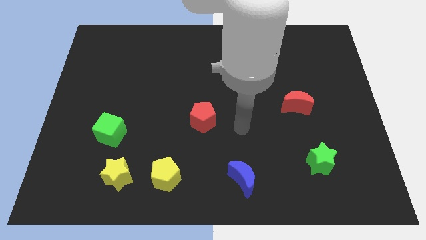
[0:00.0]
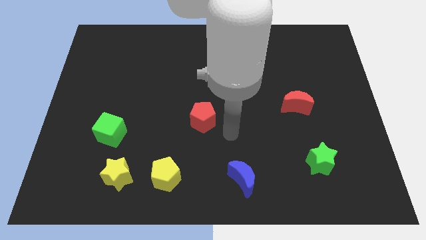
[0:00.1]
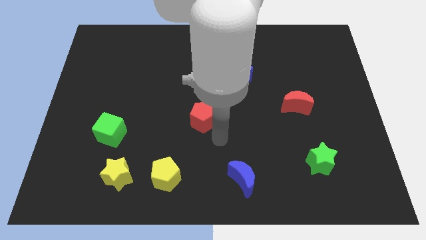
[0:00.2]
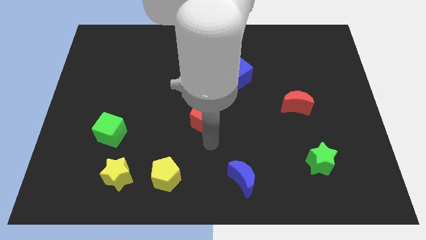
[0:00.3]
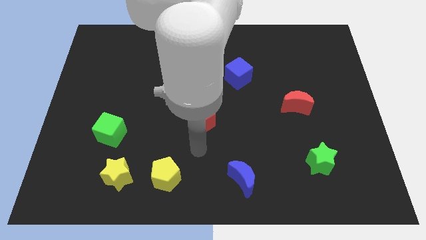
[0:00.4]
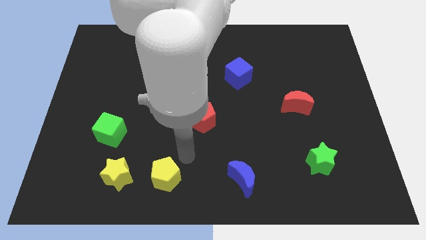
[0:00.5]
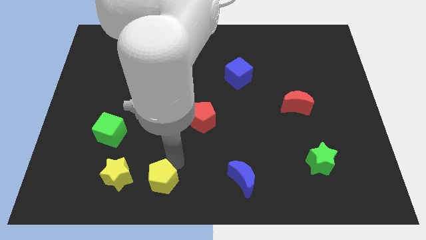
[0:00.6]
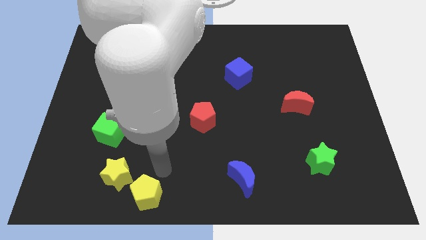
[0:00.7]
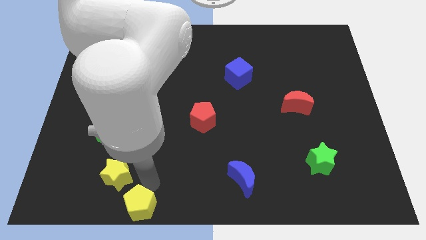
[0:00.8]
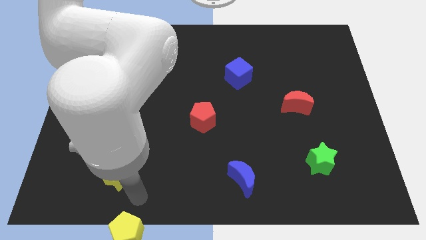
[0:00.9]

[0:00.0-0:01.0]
pull the yellow star apart from the yellow pentagon

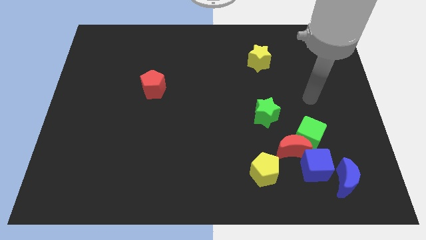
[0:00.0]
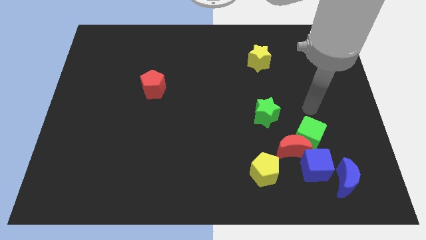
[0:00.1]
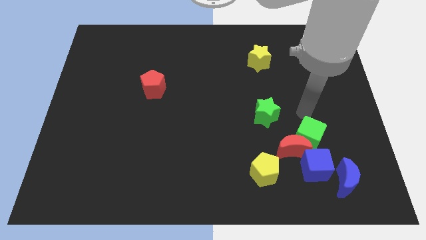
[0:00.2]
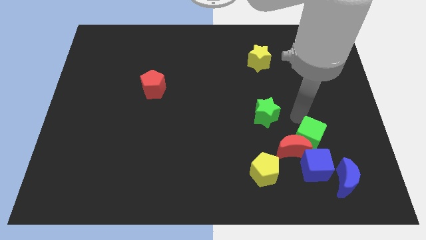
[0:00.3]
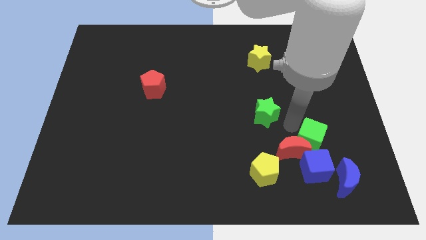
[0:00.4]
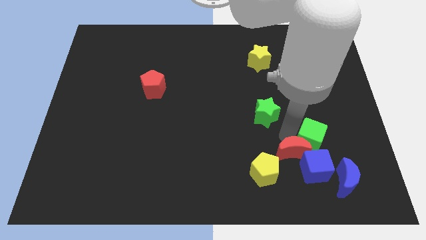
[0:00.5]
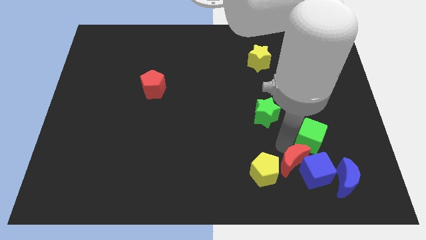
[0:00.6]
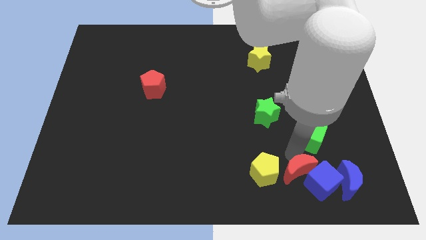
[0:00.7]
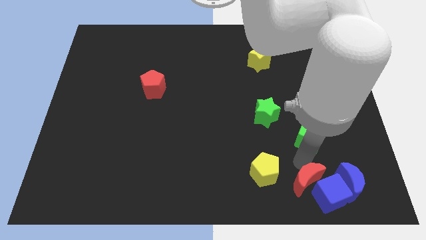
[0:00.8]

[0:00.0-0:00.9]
pull the green cube apart from the red moon and blue cube

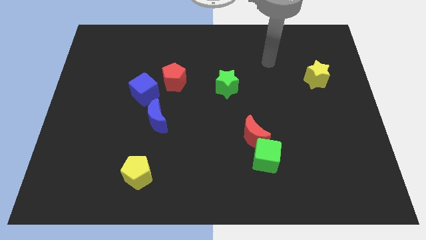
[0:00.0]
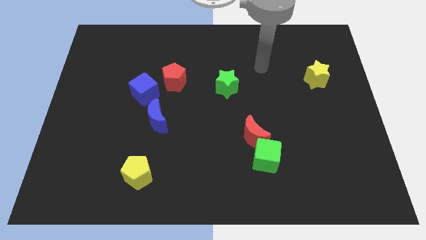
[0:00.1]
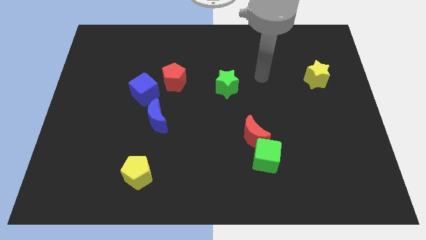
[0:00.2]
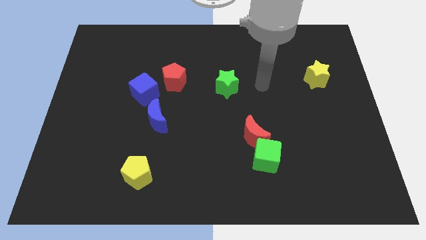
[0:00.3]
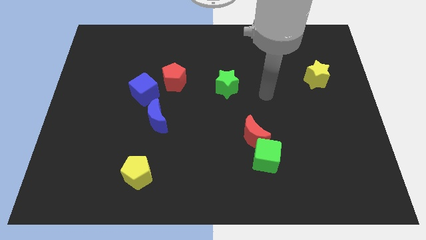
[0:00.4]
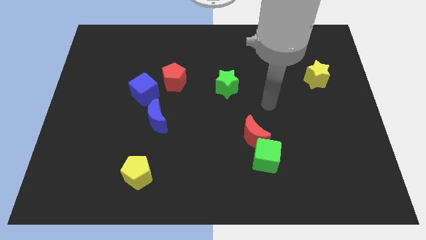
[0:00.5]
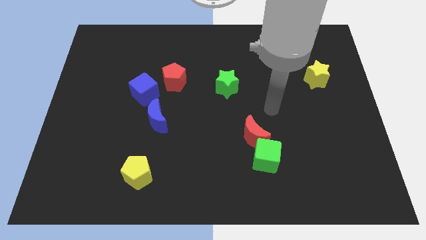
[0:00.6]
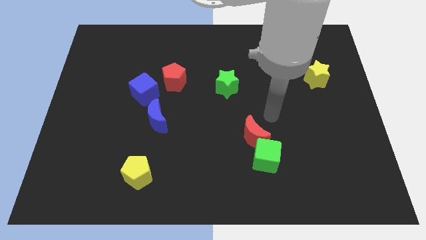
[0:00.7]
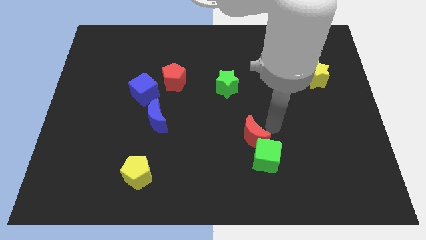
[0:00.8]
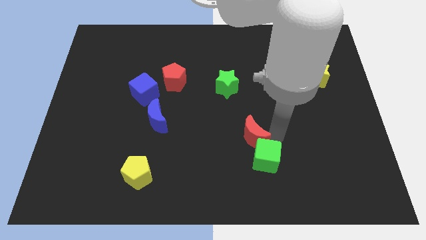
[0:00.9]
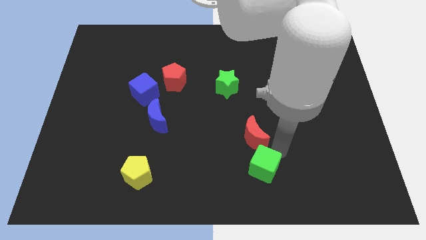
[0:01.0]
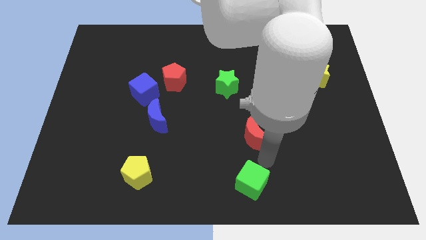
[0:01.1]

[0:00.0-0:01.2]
move the red moon away from the green cube

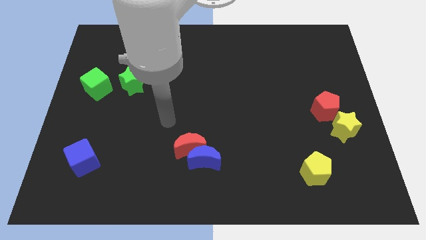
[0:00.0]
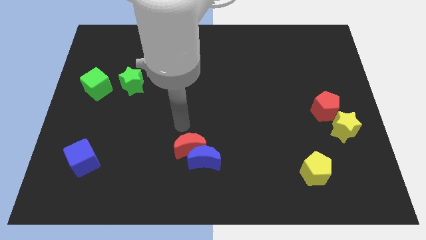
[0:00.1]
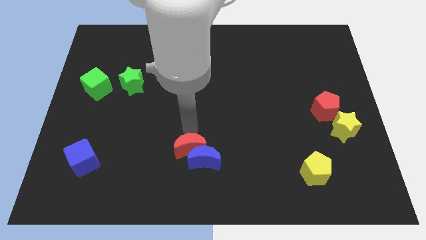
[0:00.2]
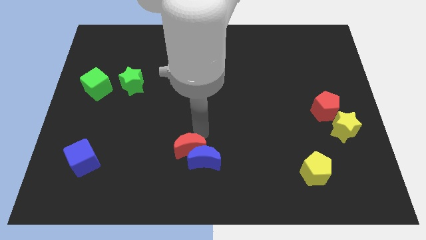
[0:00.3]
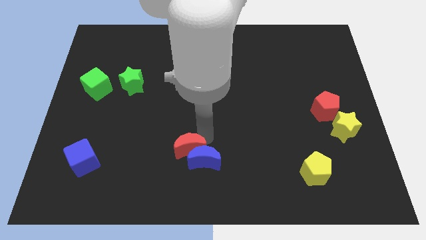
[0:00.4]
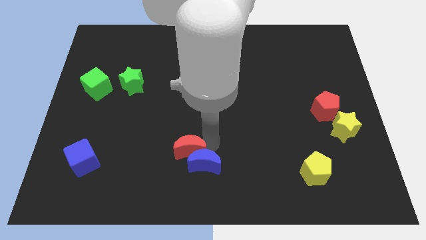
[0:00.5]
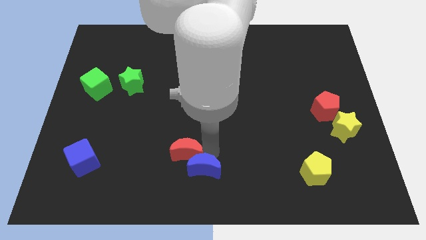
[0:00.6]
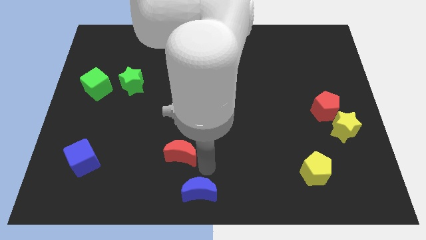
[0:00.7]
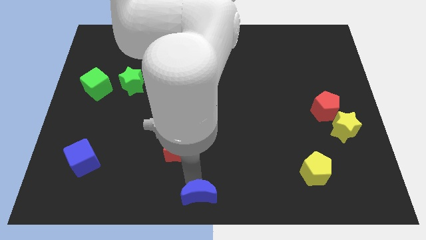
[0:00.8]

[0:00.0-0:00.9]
move the red moon away from the blue moon

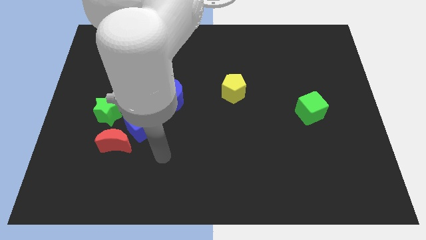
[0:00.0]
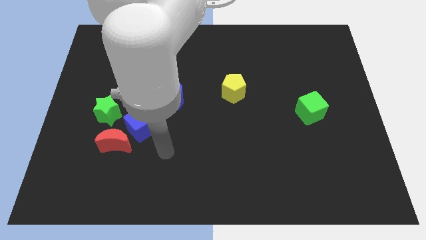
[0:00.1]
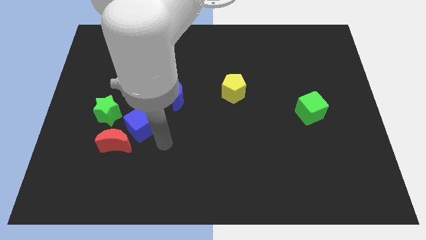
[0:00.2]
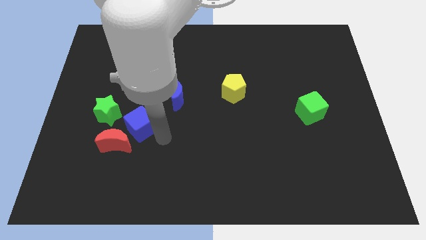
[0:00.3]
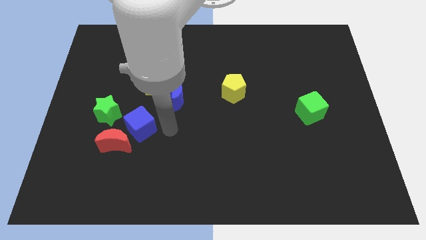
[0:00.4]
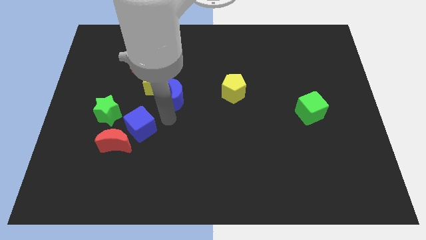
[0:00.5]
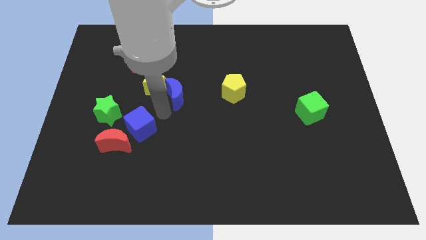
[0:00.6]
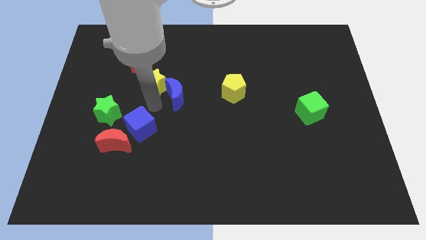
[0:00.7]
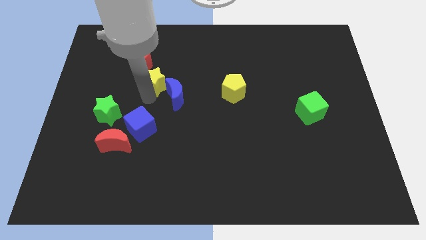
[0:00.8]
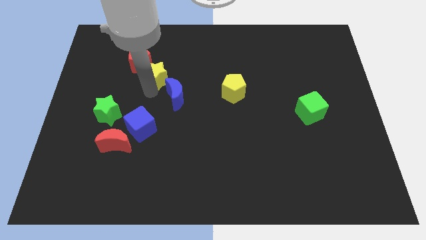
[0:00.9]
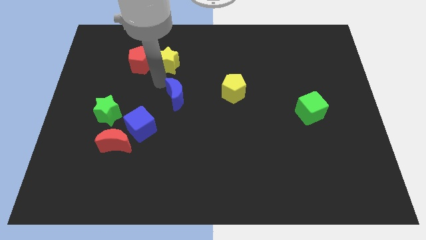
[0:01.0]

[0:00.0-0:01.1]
pull the blue moon apart from the yellow star

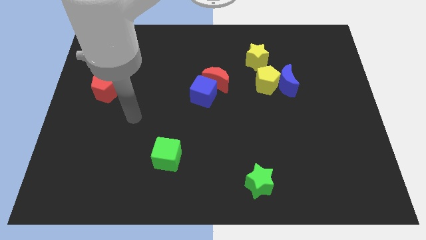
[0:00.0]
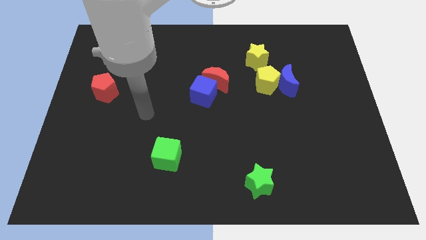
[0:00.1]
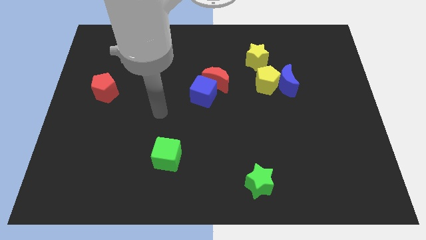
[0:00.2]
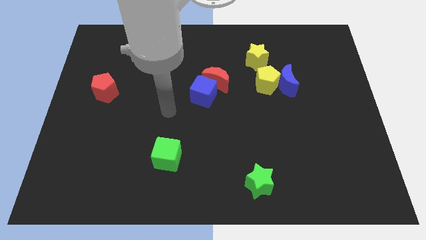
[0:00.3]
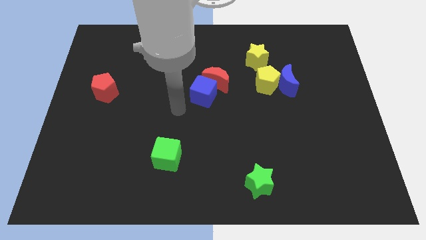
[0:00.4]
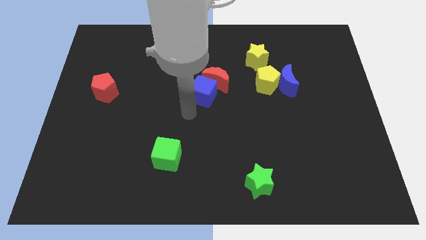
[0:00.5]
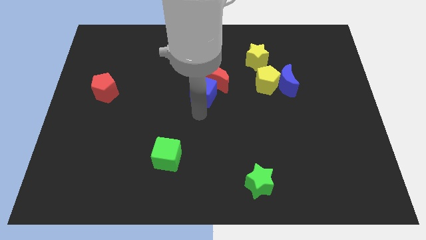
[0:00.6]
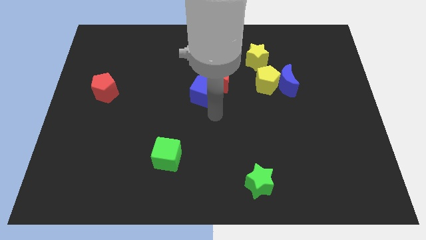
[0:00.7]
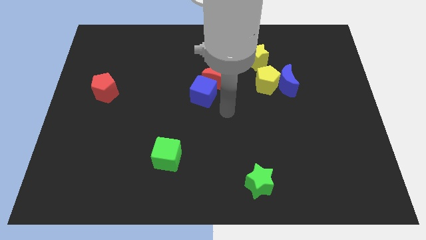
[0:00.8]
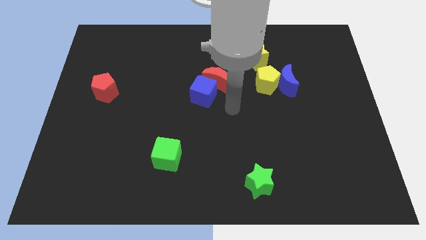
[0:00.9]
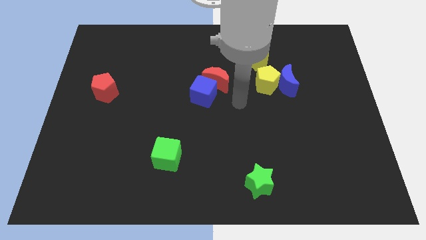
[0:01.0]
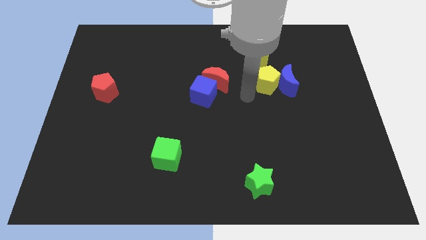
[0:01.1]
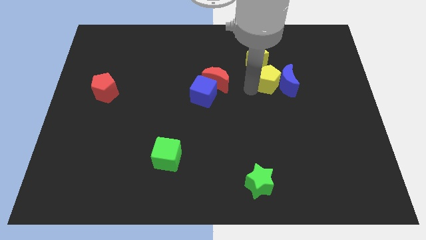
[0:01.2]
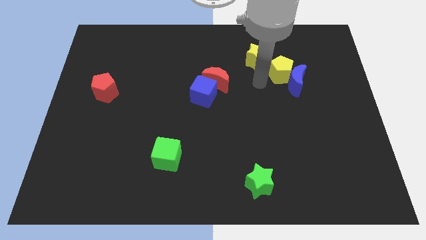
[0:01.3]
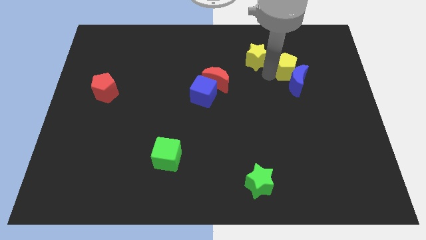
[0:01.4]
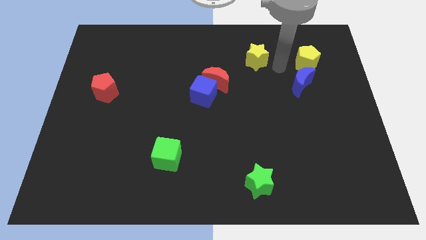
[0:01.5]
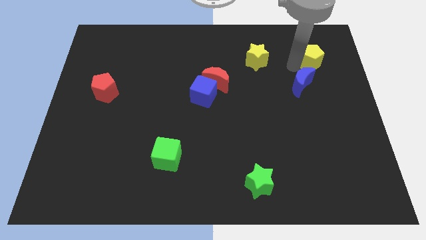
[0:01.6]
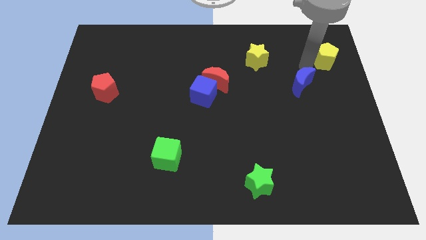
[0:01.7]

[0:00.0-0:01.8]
pull the blue moon apart from the yellow pentagon

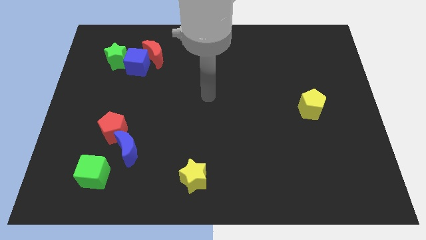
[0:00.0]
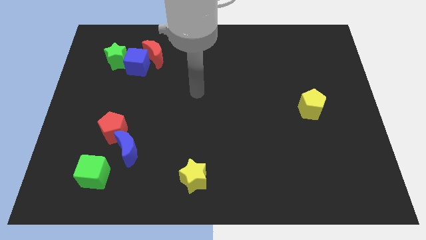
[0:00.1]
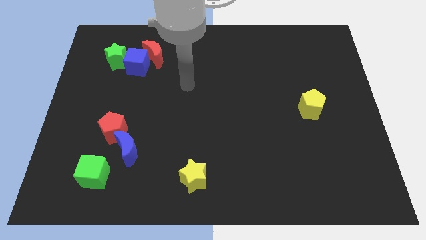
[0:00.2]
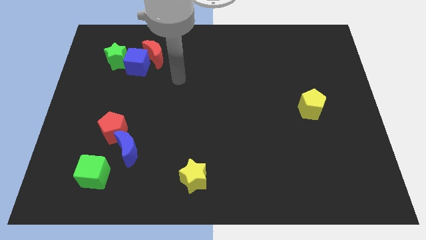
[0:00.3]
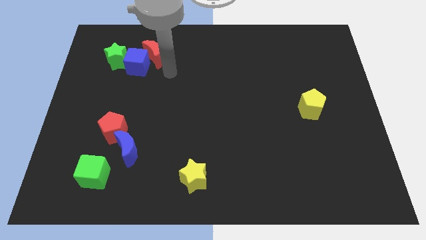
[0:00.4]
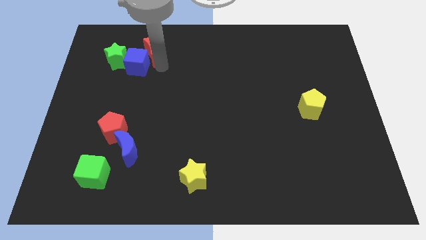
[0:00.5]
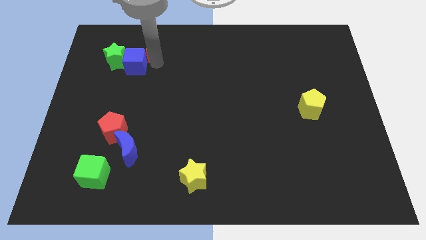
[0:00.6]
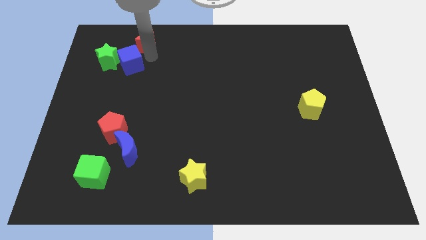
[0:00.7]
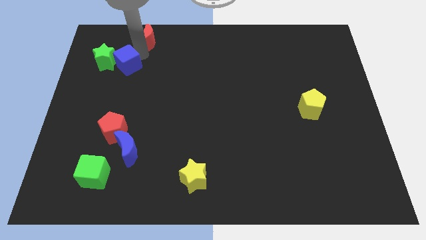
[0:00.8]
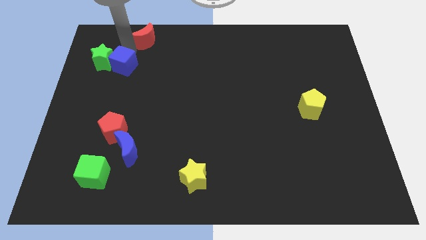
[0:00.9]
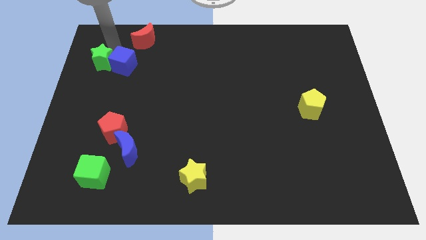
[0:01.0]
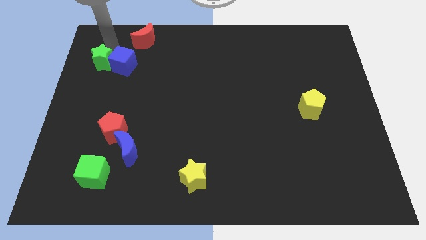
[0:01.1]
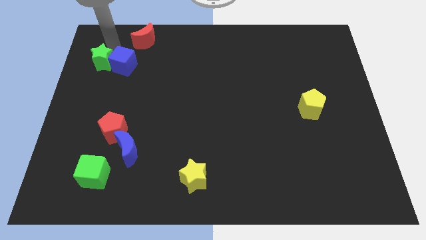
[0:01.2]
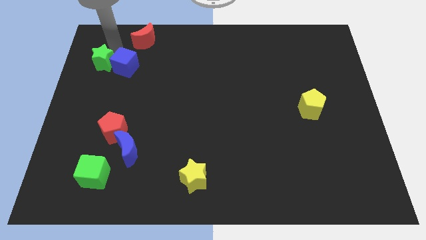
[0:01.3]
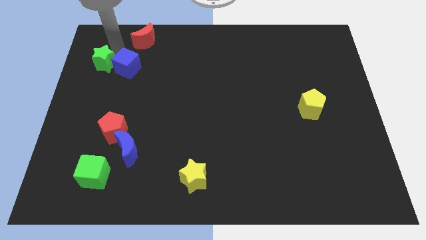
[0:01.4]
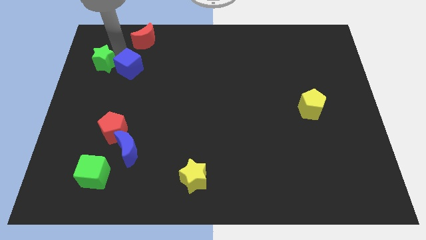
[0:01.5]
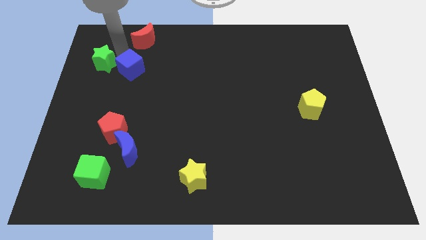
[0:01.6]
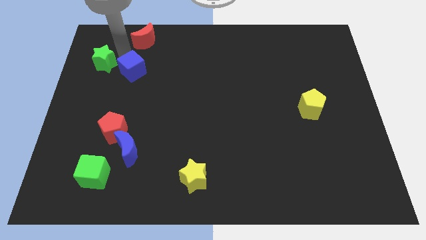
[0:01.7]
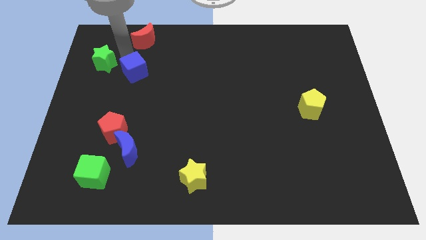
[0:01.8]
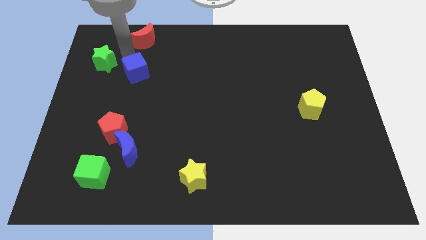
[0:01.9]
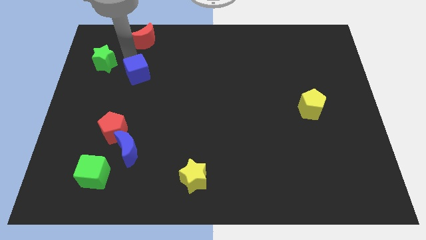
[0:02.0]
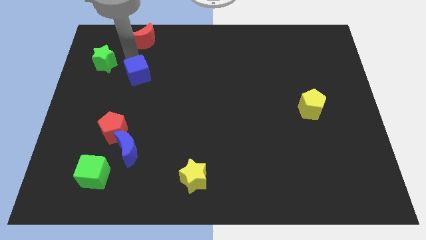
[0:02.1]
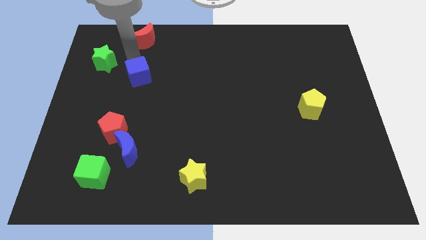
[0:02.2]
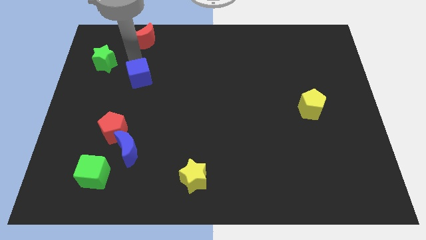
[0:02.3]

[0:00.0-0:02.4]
pull the blue cube apart from the red moon and green star
